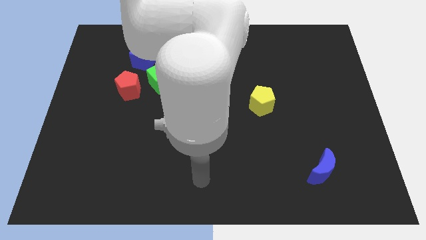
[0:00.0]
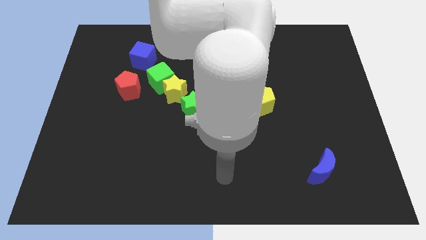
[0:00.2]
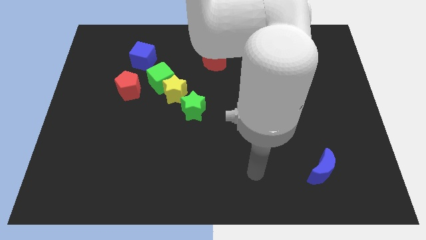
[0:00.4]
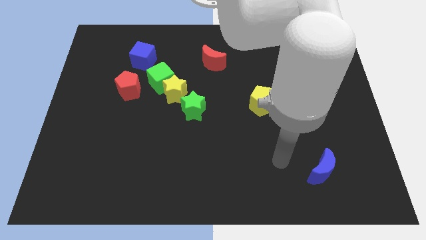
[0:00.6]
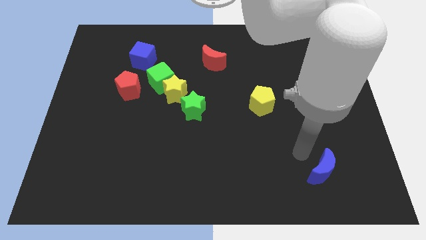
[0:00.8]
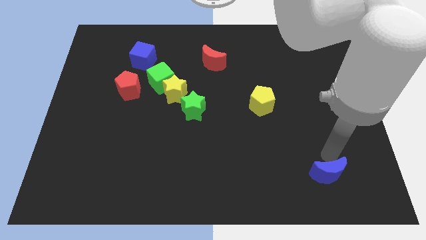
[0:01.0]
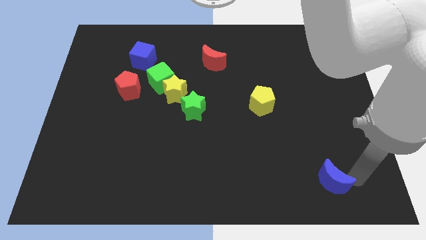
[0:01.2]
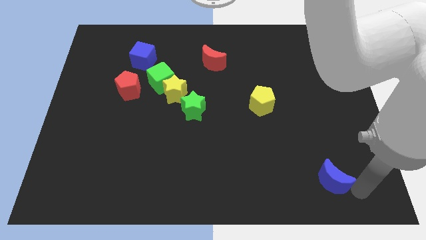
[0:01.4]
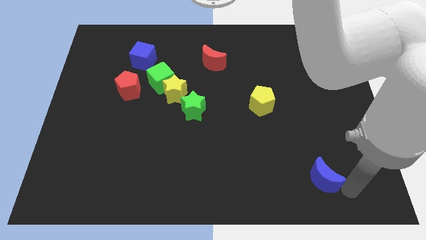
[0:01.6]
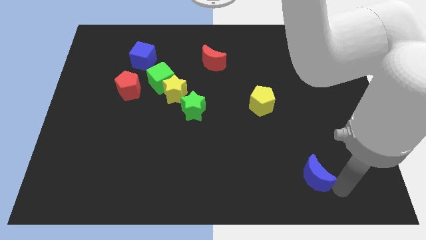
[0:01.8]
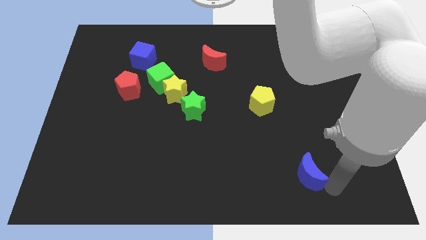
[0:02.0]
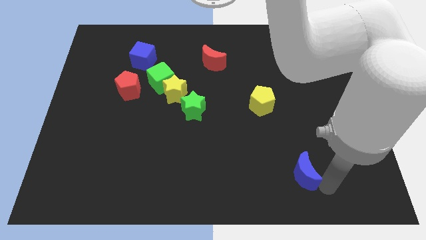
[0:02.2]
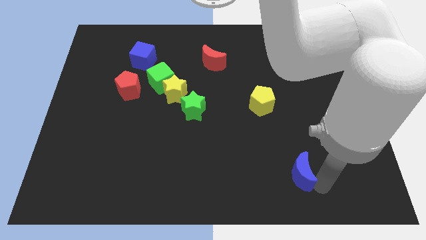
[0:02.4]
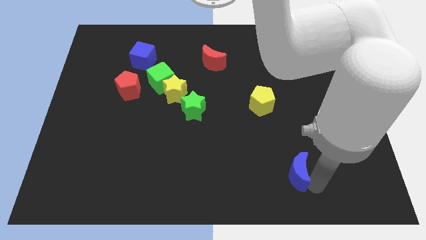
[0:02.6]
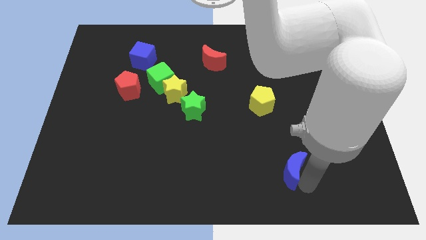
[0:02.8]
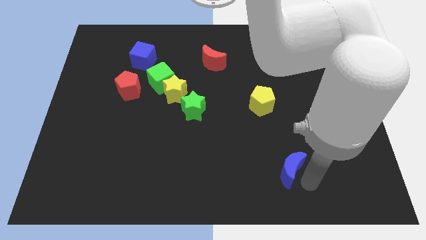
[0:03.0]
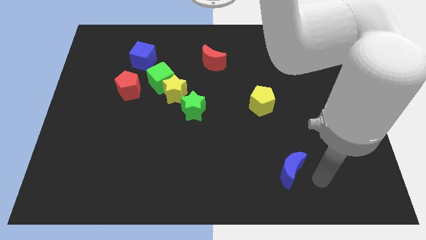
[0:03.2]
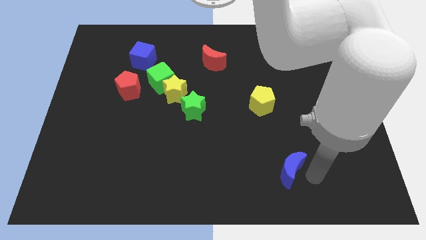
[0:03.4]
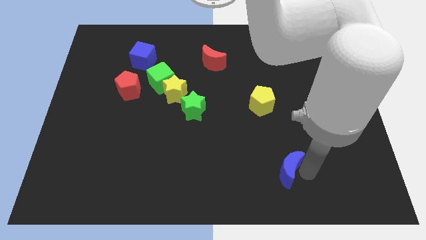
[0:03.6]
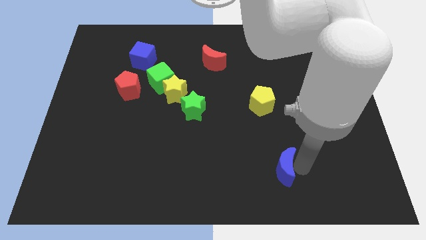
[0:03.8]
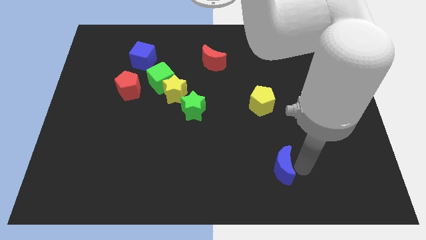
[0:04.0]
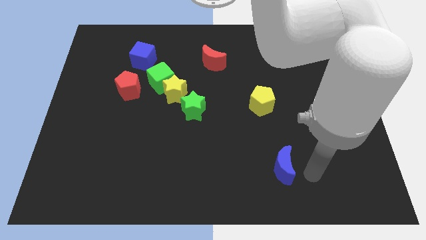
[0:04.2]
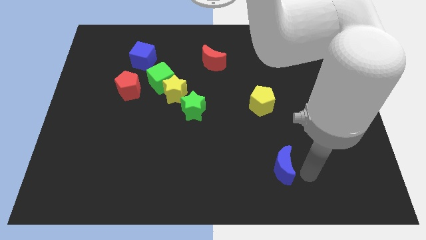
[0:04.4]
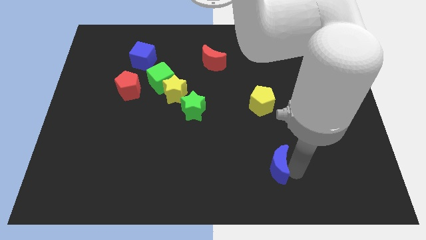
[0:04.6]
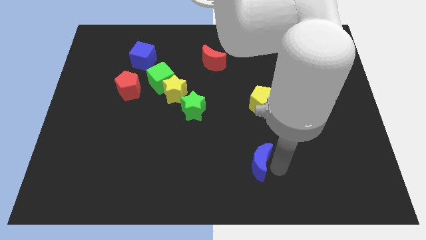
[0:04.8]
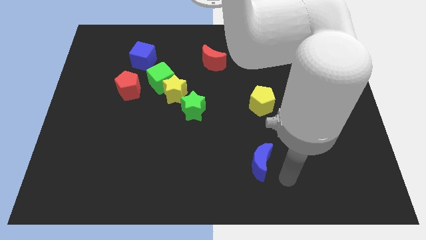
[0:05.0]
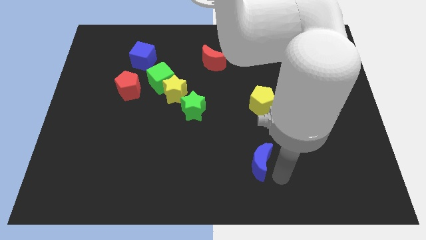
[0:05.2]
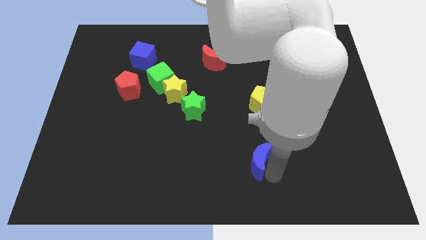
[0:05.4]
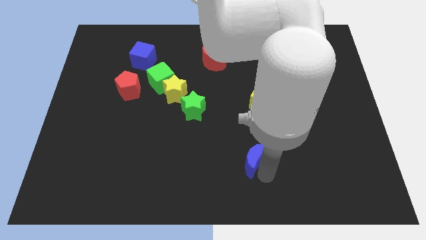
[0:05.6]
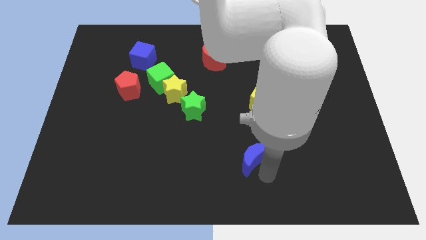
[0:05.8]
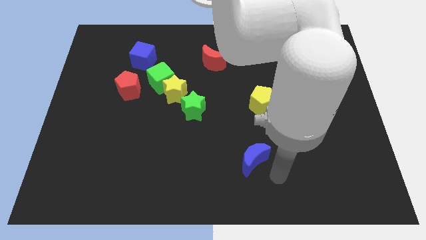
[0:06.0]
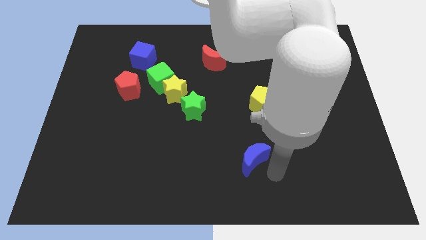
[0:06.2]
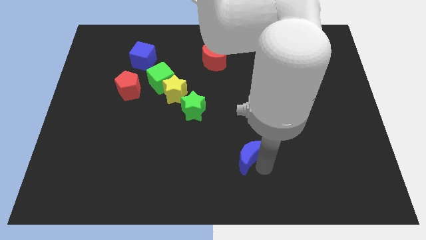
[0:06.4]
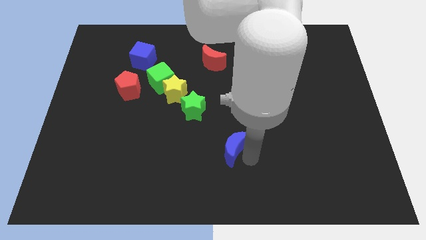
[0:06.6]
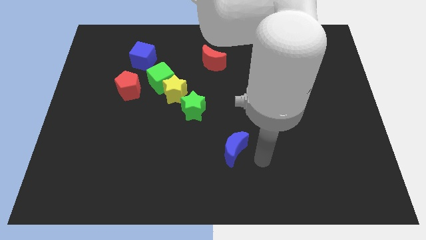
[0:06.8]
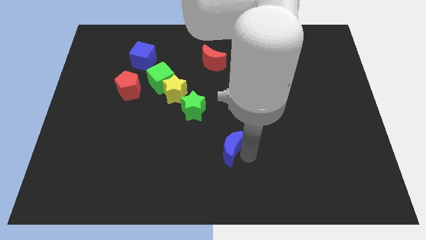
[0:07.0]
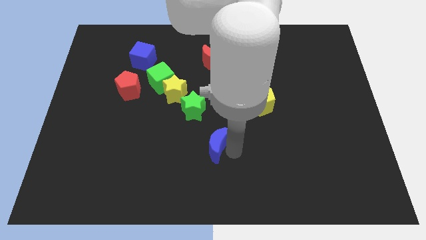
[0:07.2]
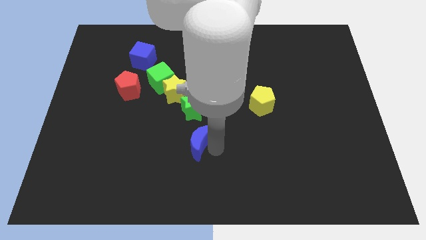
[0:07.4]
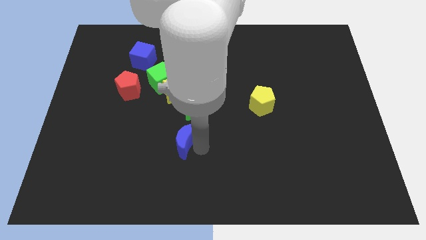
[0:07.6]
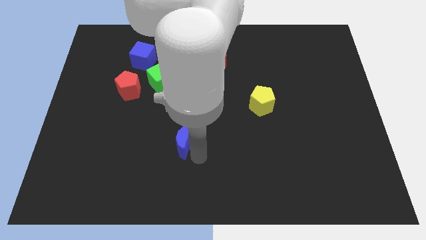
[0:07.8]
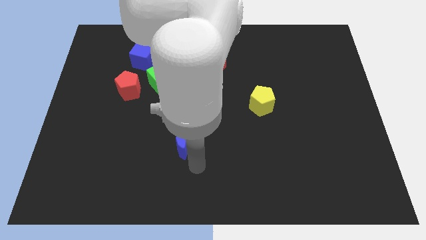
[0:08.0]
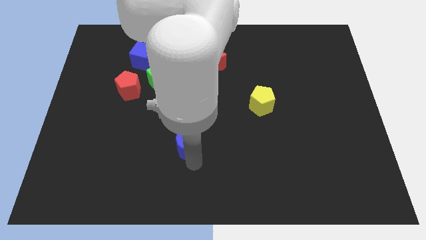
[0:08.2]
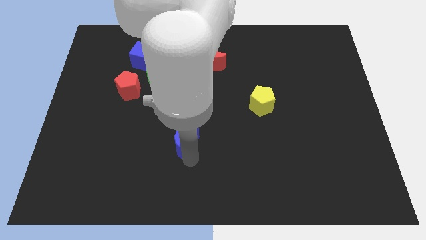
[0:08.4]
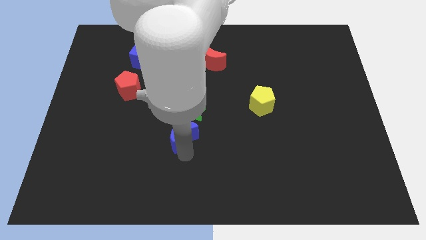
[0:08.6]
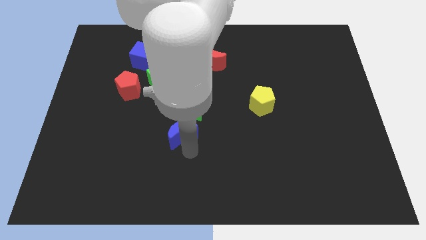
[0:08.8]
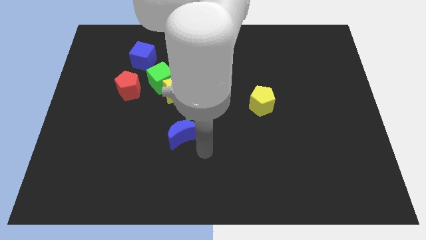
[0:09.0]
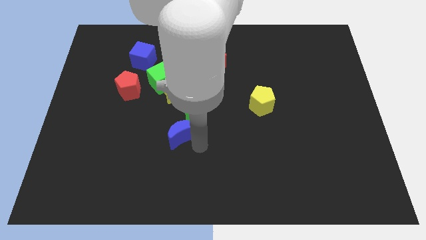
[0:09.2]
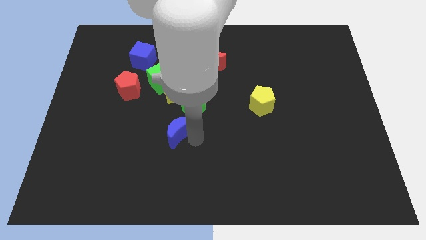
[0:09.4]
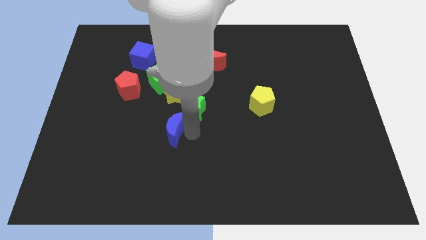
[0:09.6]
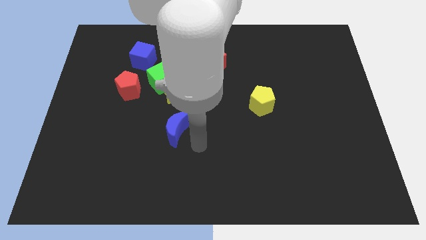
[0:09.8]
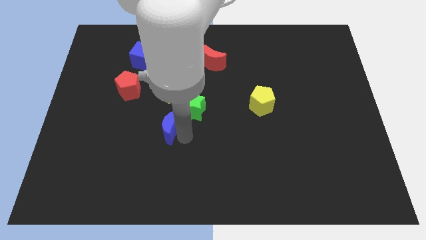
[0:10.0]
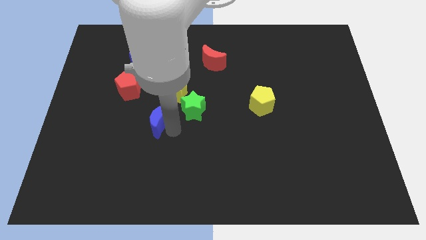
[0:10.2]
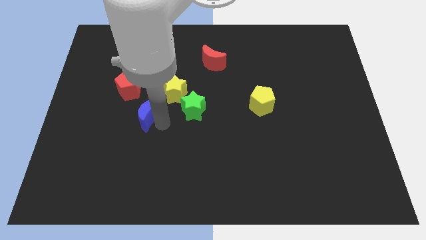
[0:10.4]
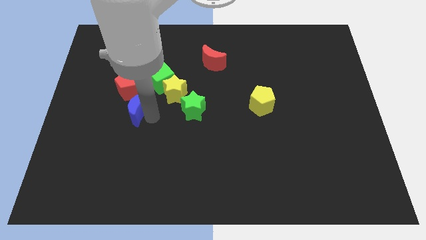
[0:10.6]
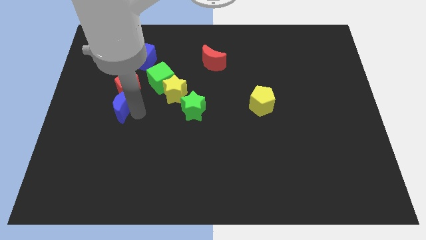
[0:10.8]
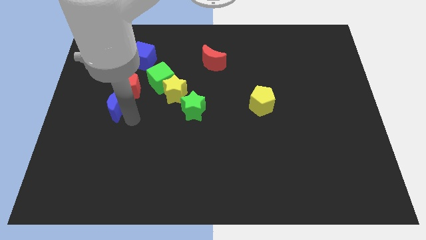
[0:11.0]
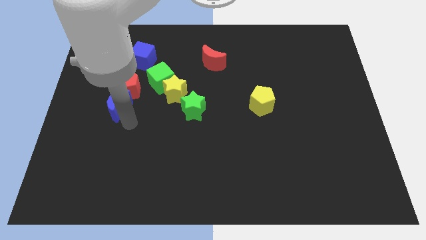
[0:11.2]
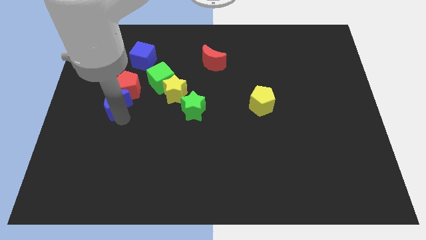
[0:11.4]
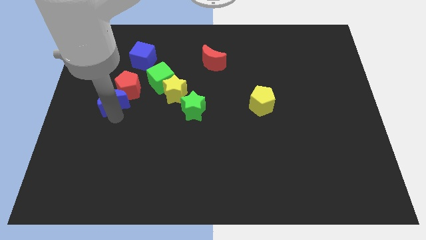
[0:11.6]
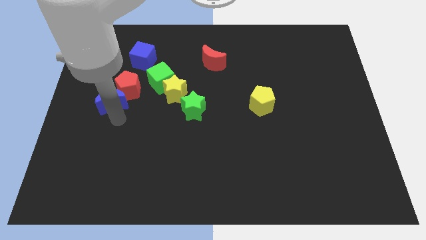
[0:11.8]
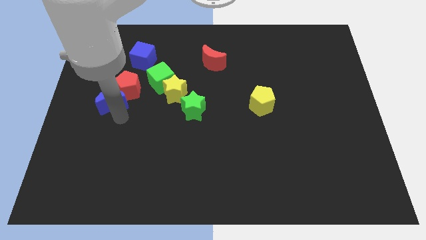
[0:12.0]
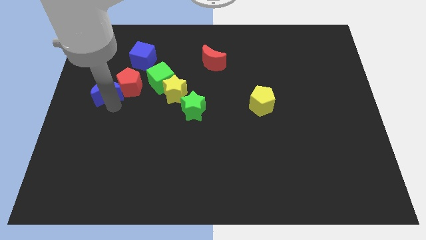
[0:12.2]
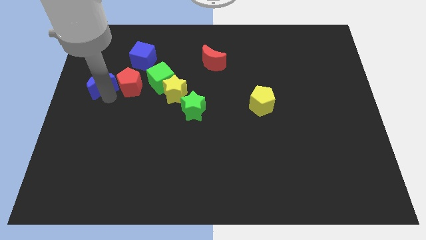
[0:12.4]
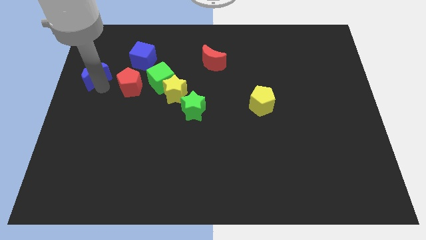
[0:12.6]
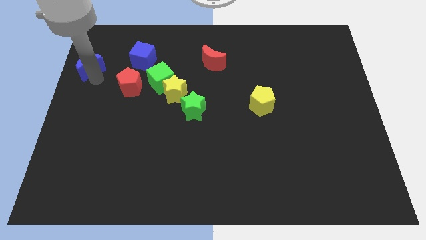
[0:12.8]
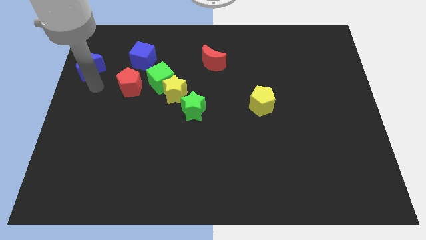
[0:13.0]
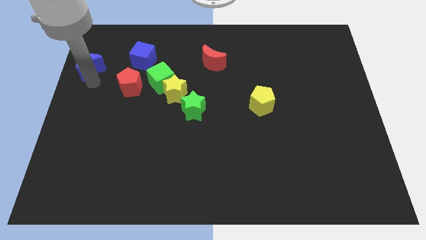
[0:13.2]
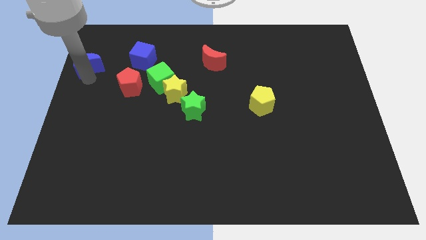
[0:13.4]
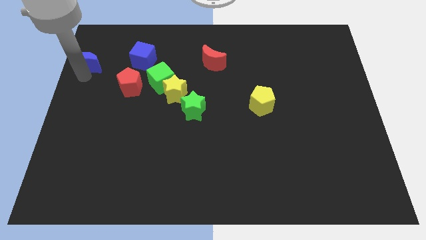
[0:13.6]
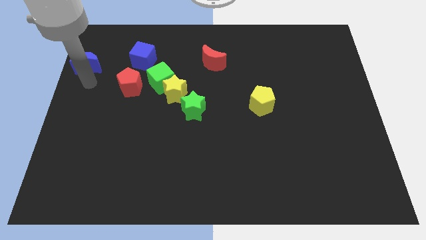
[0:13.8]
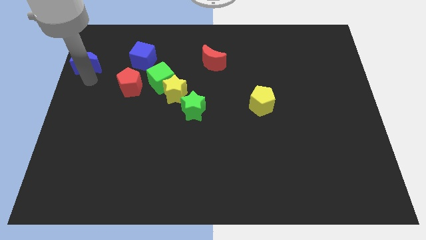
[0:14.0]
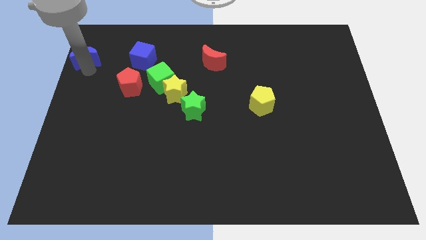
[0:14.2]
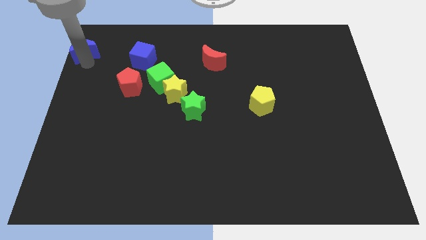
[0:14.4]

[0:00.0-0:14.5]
push the blue moon to the top left
